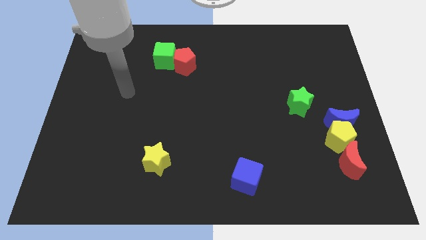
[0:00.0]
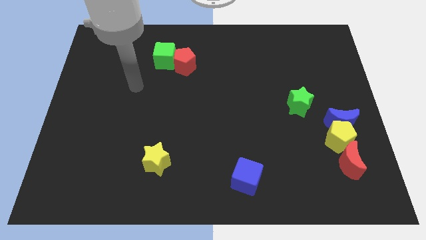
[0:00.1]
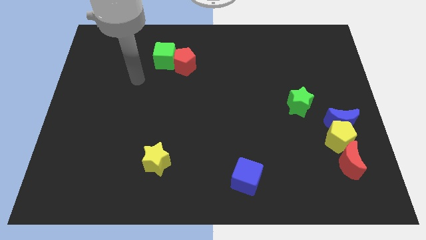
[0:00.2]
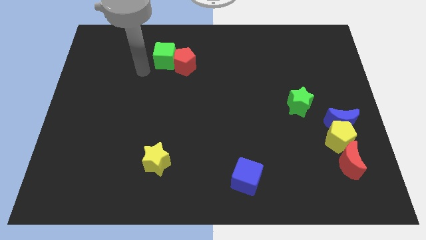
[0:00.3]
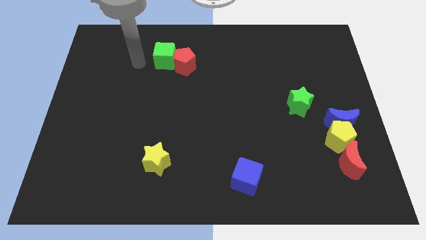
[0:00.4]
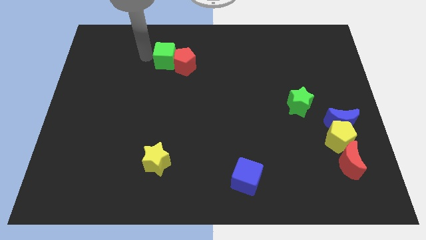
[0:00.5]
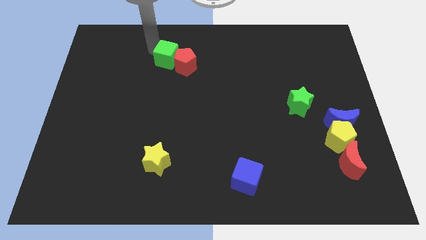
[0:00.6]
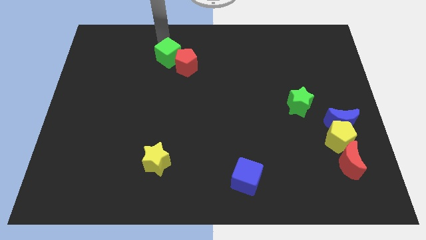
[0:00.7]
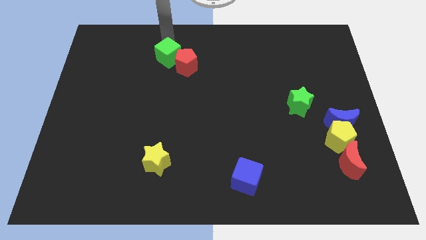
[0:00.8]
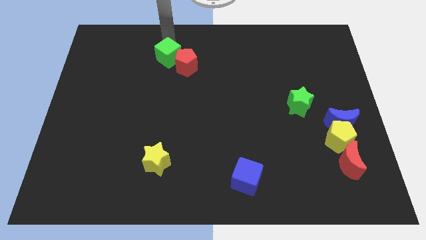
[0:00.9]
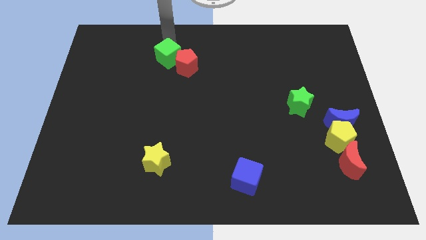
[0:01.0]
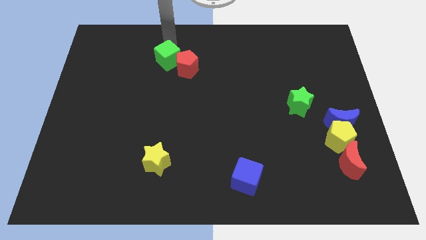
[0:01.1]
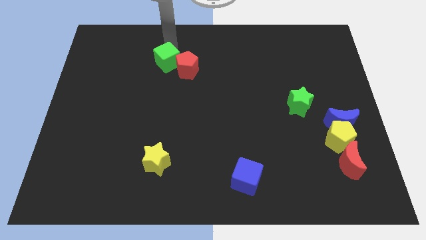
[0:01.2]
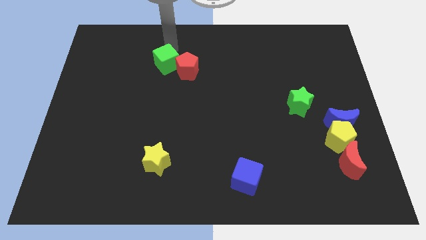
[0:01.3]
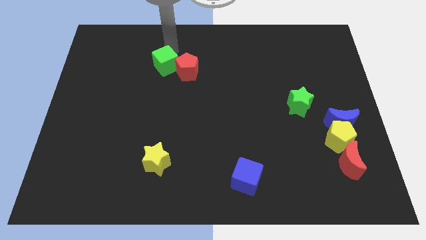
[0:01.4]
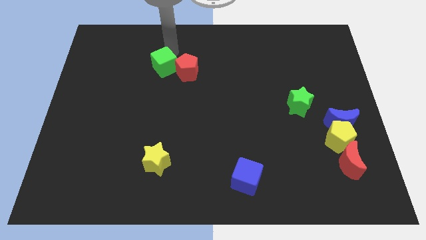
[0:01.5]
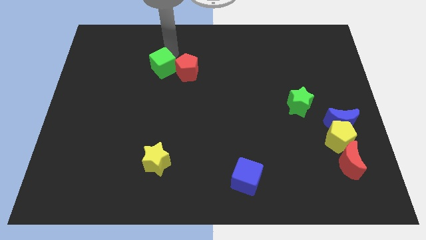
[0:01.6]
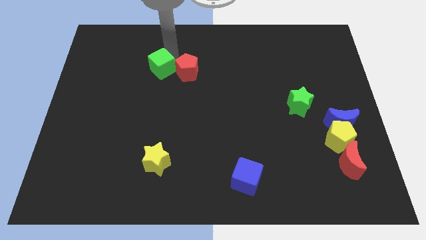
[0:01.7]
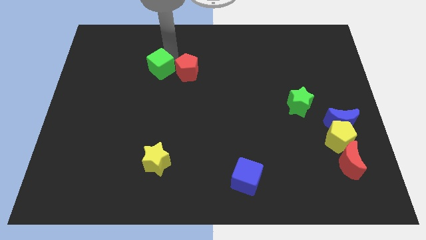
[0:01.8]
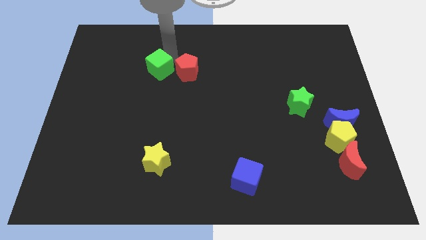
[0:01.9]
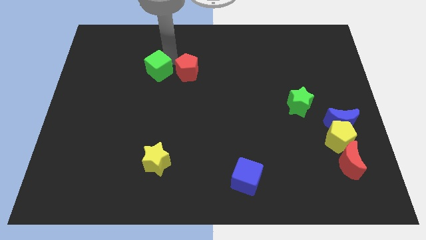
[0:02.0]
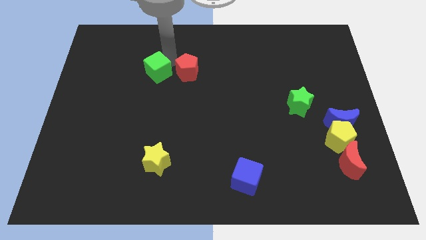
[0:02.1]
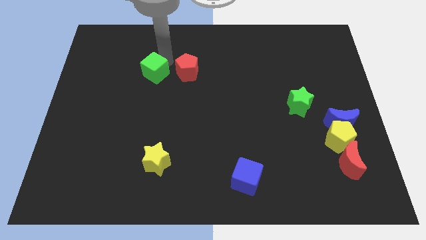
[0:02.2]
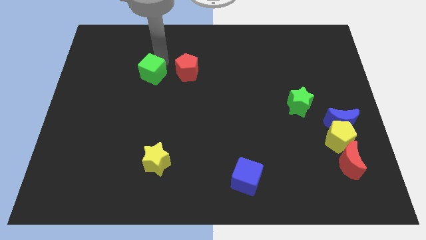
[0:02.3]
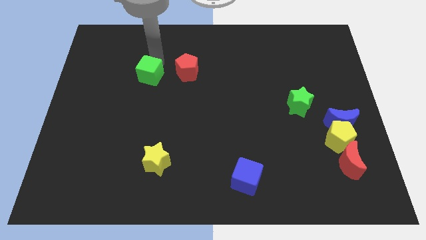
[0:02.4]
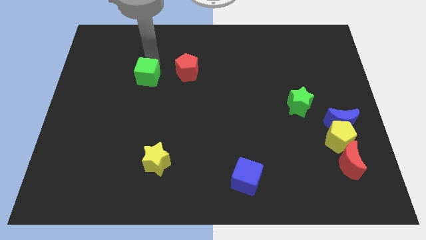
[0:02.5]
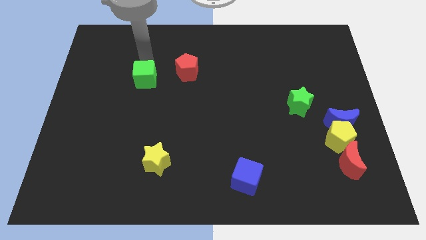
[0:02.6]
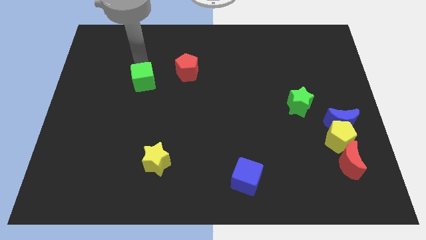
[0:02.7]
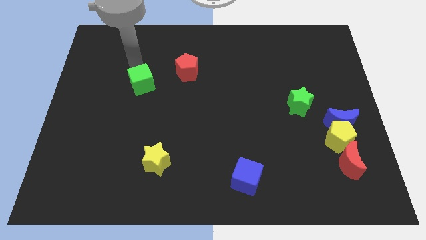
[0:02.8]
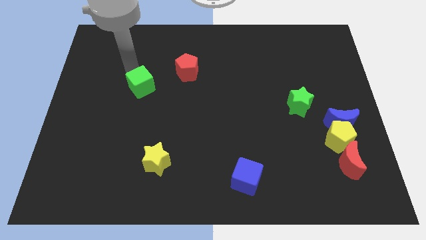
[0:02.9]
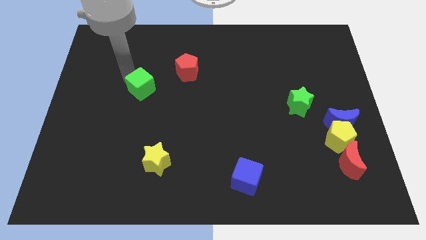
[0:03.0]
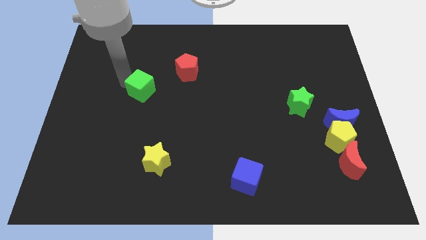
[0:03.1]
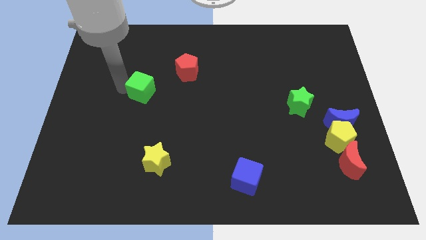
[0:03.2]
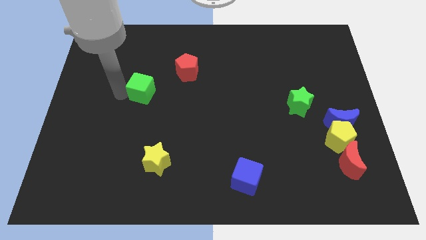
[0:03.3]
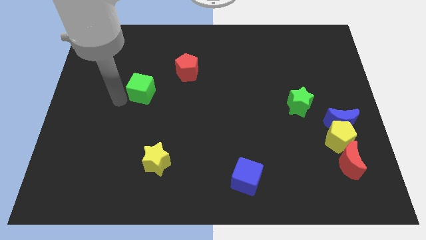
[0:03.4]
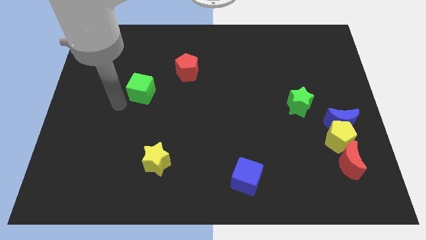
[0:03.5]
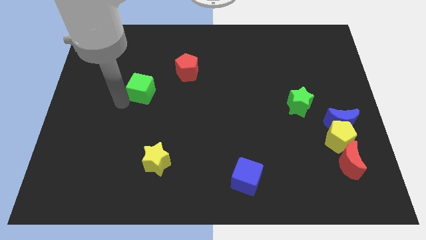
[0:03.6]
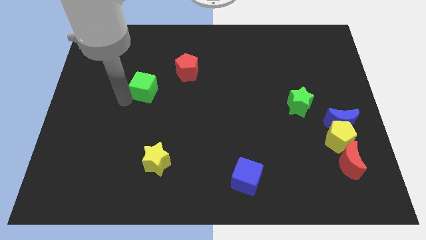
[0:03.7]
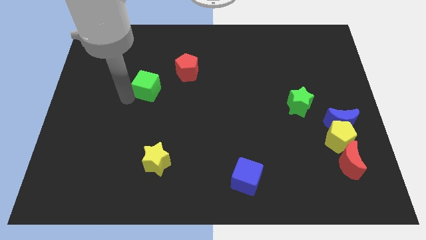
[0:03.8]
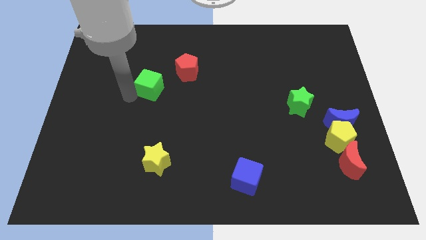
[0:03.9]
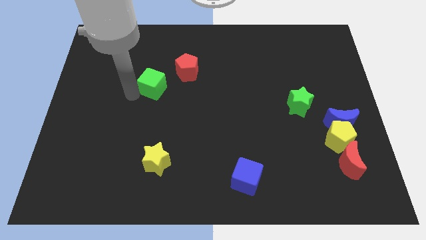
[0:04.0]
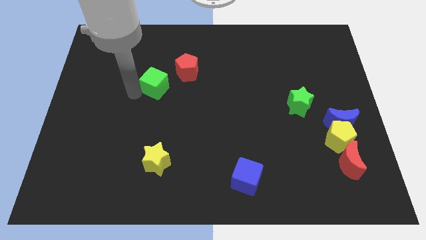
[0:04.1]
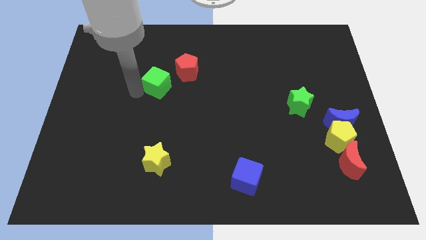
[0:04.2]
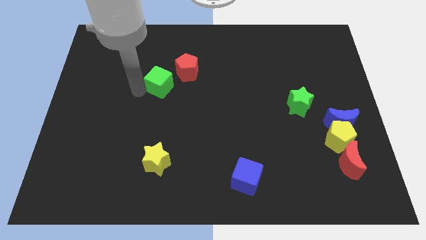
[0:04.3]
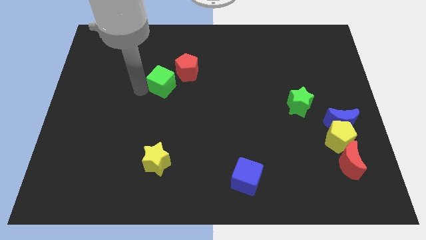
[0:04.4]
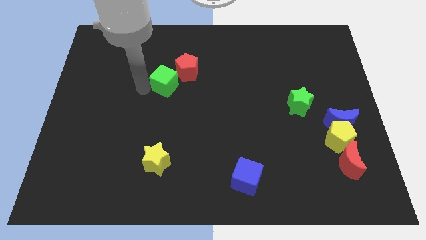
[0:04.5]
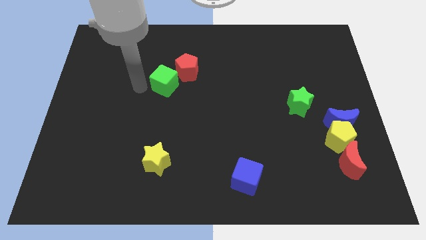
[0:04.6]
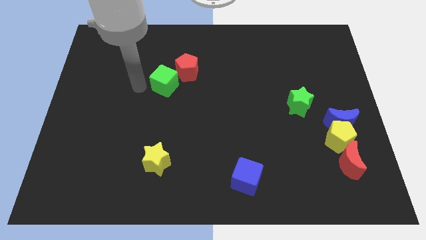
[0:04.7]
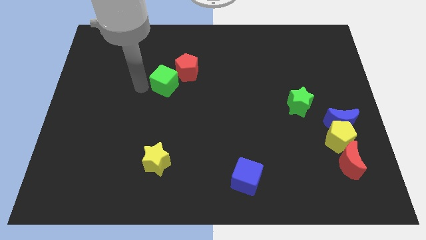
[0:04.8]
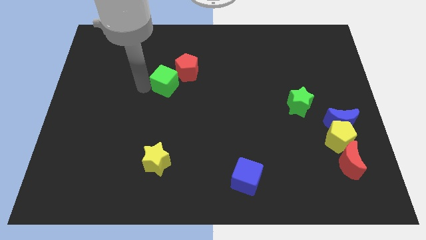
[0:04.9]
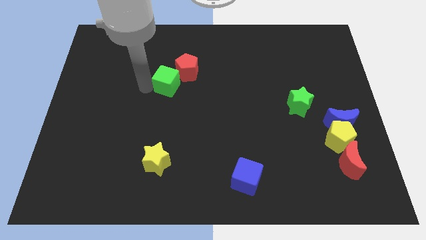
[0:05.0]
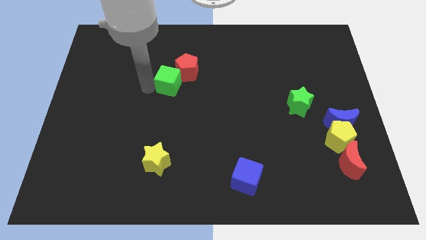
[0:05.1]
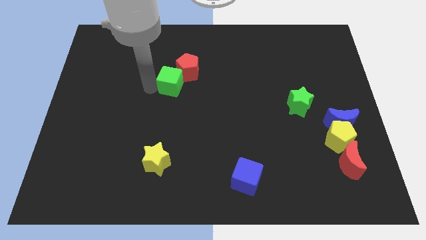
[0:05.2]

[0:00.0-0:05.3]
slightly slide the green cube diagonally down and to the right

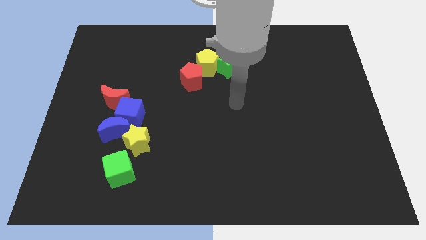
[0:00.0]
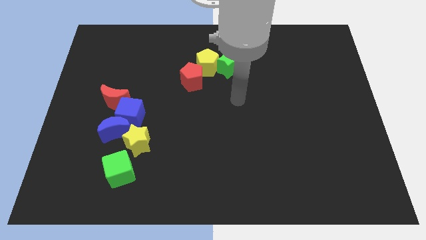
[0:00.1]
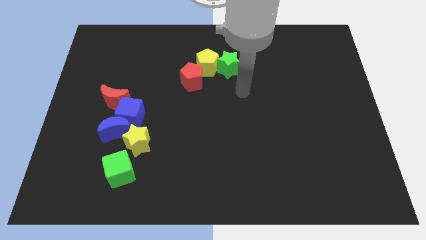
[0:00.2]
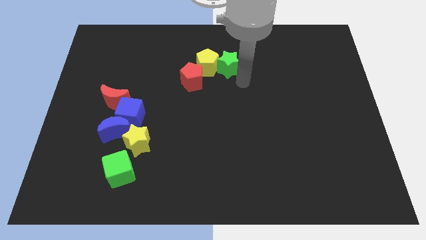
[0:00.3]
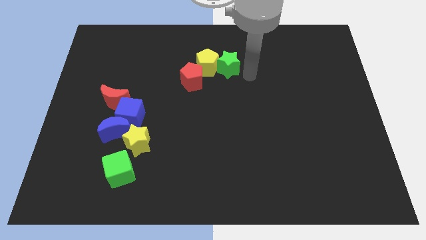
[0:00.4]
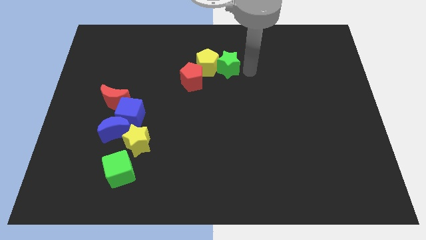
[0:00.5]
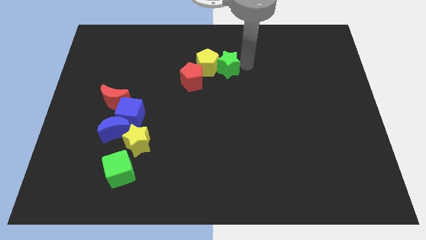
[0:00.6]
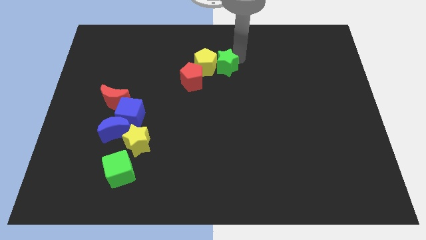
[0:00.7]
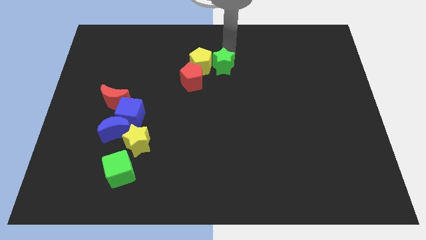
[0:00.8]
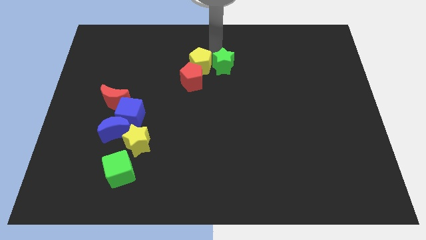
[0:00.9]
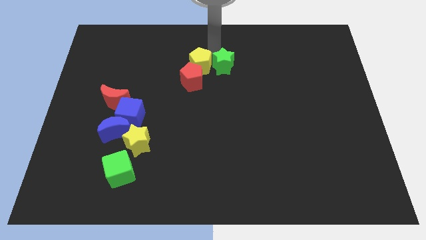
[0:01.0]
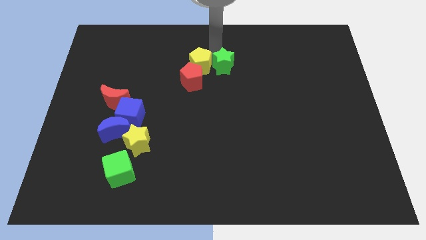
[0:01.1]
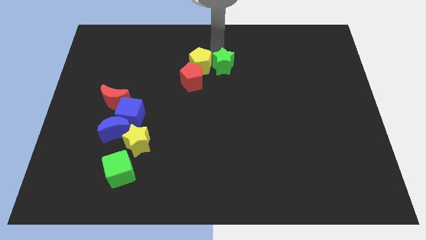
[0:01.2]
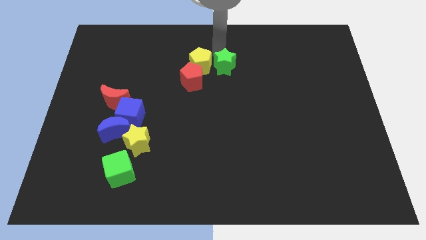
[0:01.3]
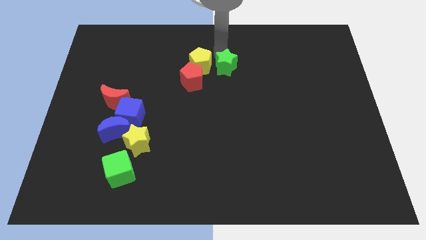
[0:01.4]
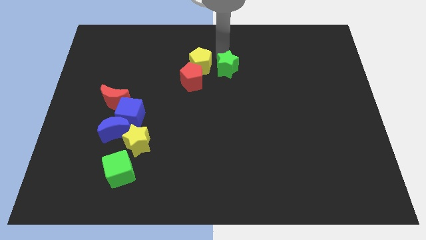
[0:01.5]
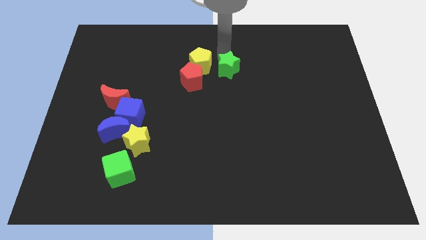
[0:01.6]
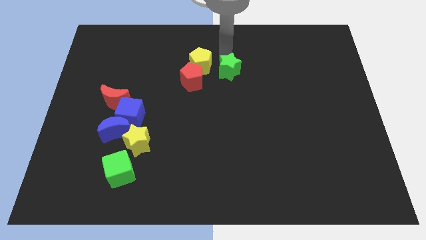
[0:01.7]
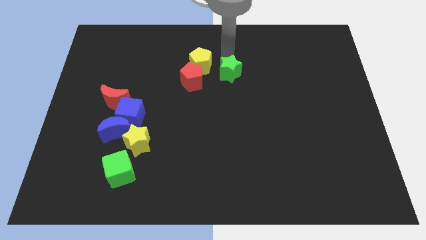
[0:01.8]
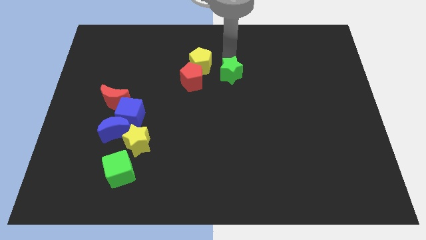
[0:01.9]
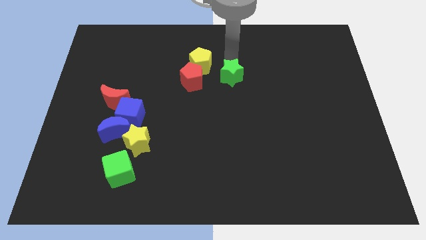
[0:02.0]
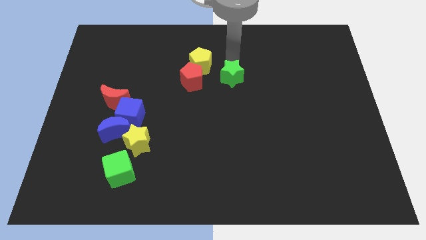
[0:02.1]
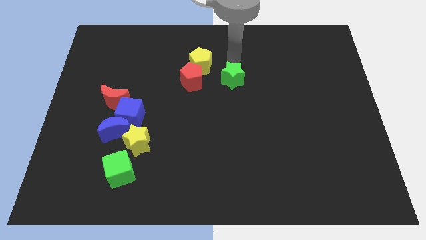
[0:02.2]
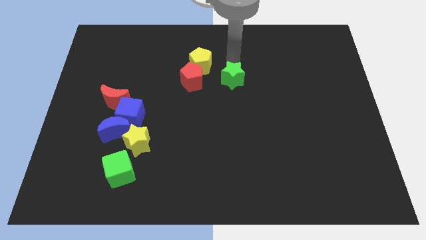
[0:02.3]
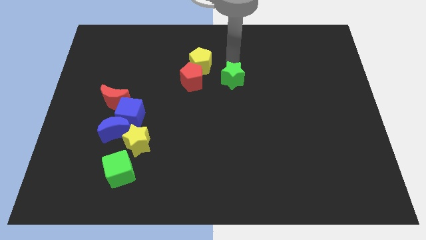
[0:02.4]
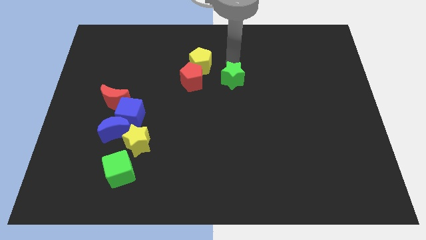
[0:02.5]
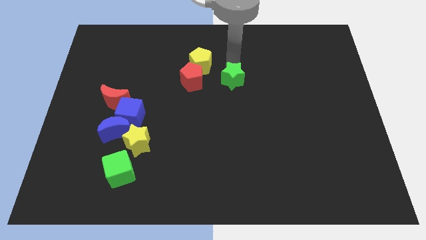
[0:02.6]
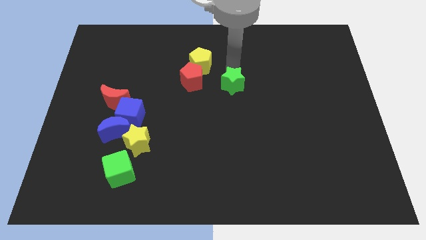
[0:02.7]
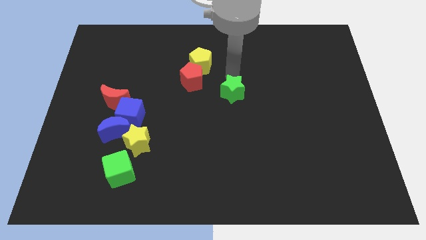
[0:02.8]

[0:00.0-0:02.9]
slightly push the green star downwards
